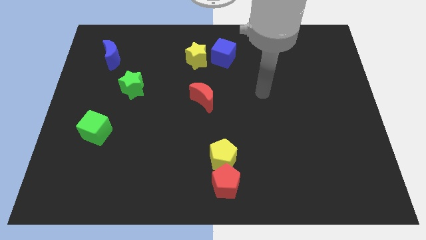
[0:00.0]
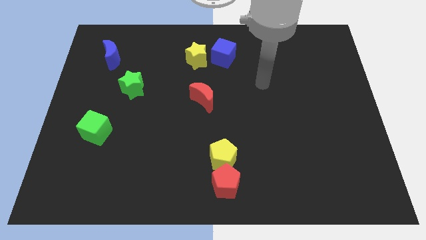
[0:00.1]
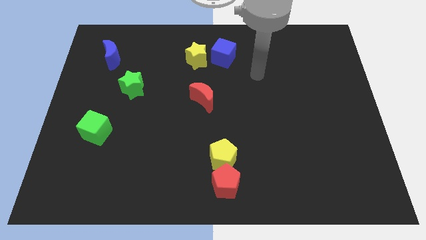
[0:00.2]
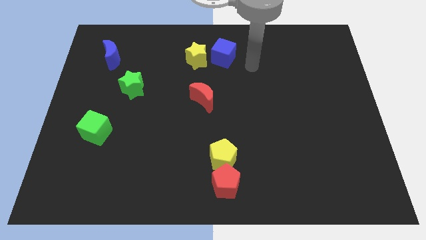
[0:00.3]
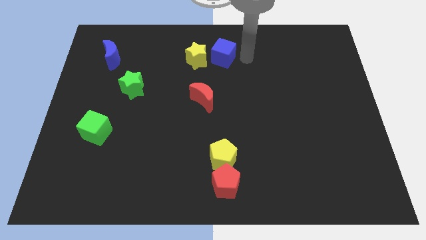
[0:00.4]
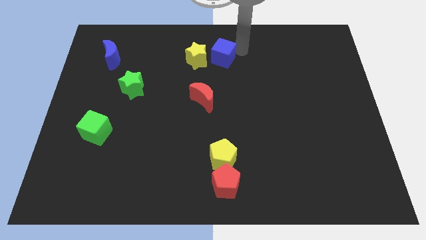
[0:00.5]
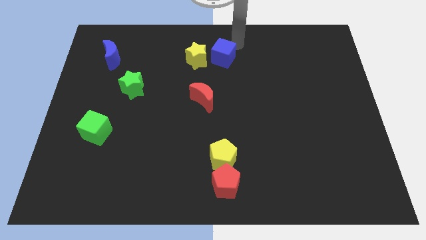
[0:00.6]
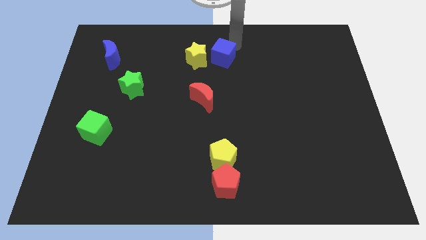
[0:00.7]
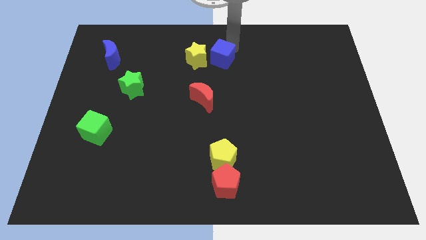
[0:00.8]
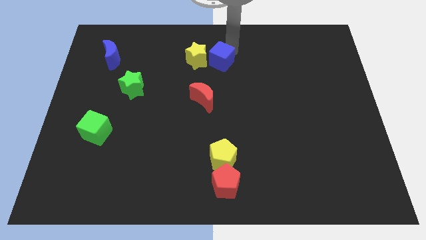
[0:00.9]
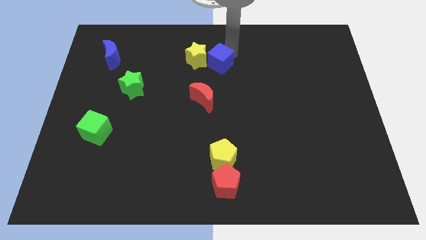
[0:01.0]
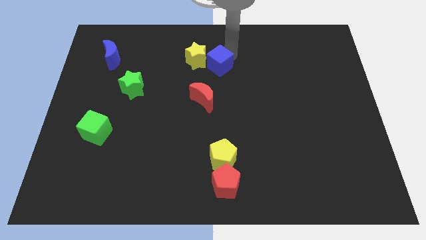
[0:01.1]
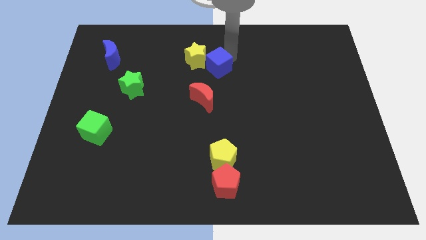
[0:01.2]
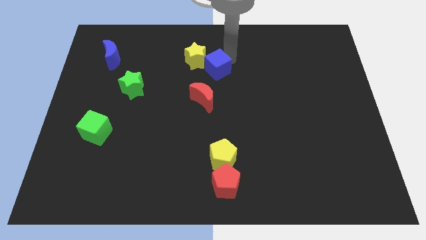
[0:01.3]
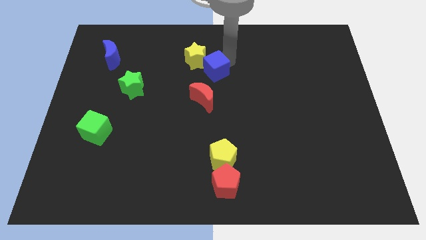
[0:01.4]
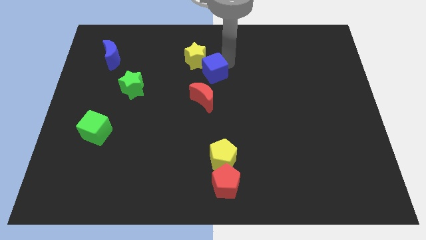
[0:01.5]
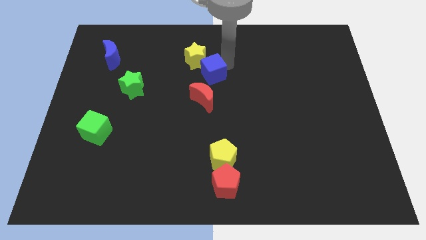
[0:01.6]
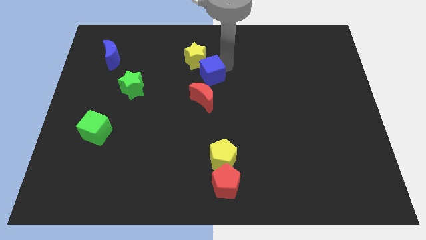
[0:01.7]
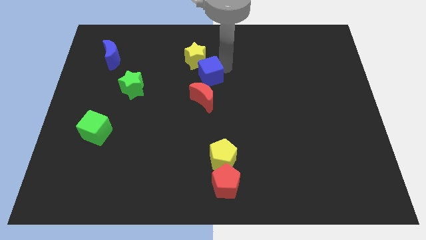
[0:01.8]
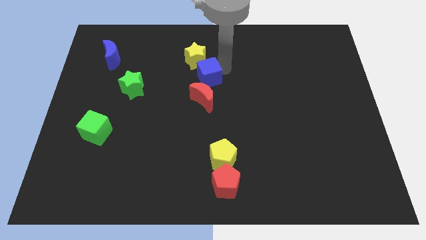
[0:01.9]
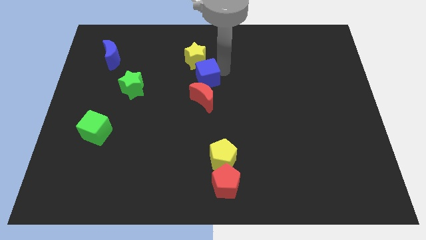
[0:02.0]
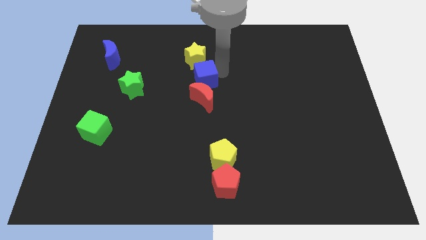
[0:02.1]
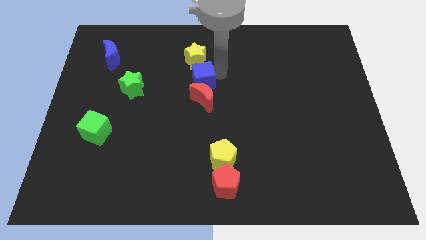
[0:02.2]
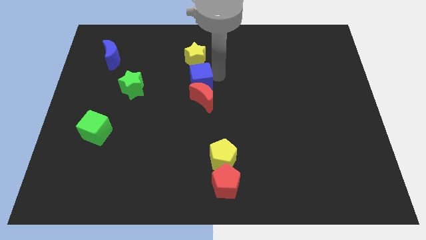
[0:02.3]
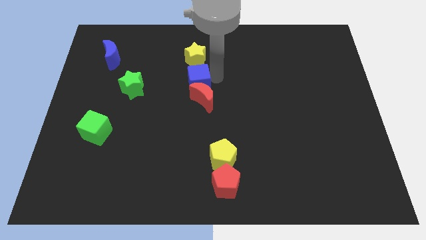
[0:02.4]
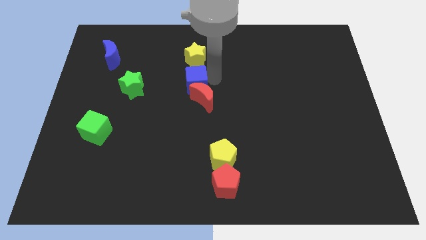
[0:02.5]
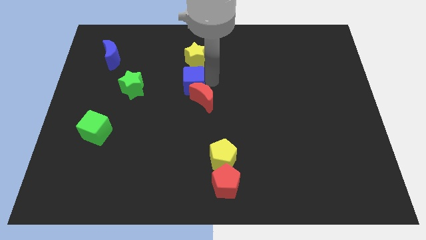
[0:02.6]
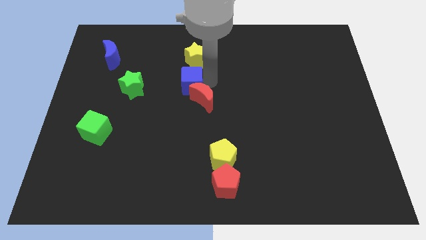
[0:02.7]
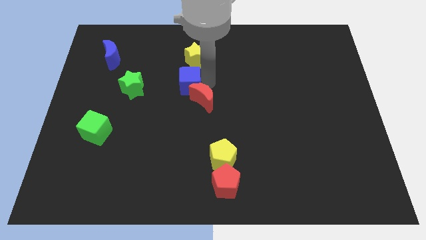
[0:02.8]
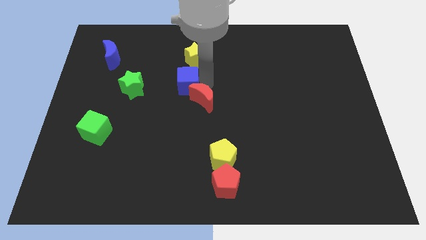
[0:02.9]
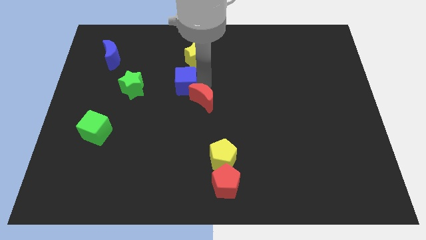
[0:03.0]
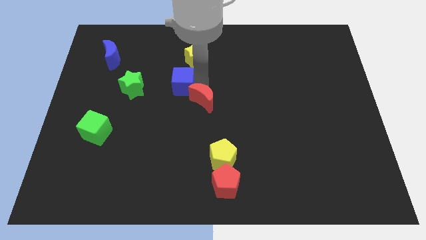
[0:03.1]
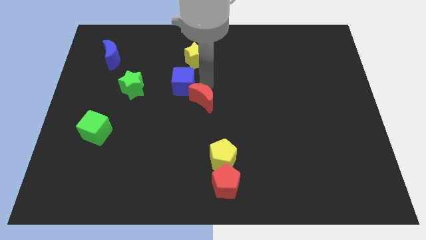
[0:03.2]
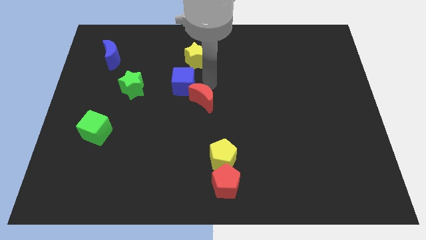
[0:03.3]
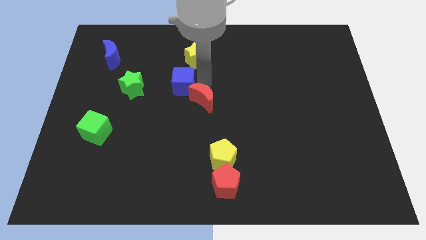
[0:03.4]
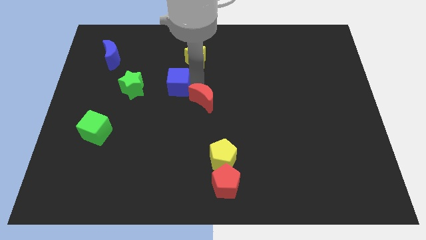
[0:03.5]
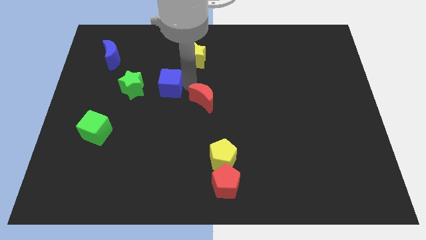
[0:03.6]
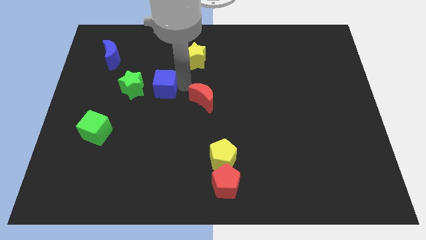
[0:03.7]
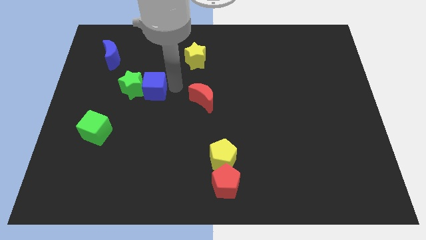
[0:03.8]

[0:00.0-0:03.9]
slide the blue cube next to the green star

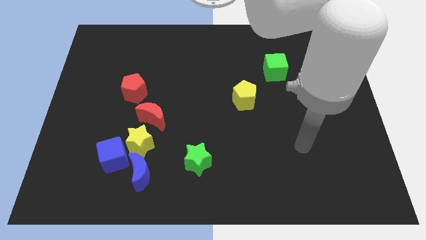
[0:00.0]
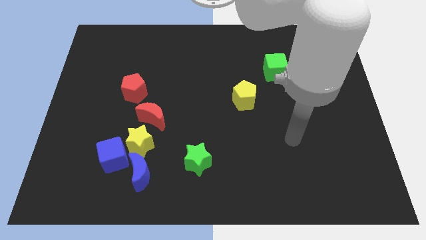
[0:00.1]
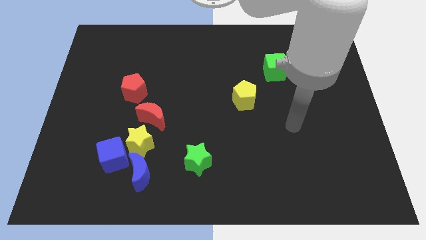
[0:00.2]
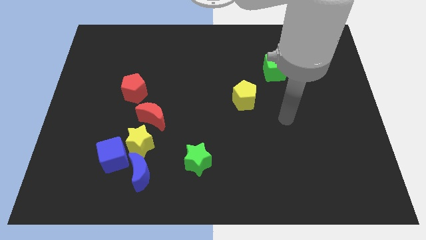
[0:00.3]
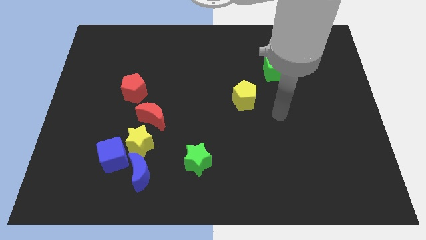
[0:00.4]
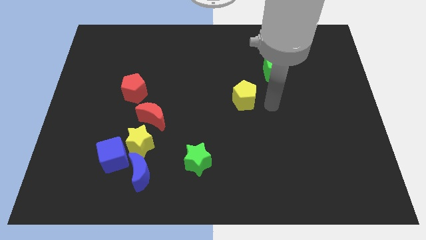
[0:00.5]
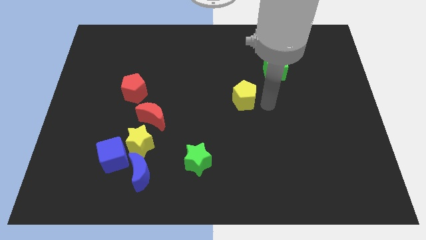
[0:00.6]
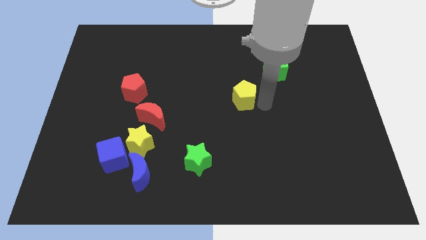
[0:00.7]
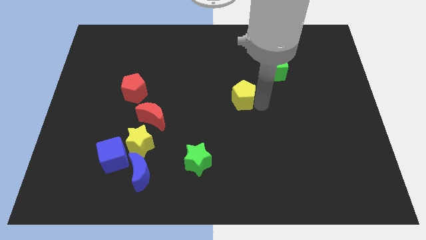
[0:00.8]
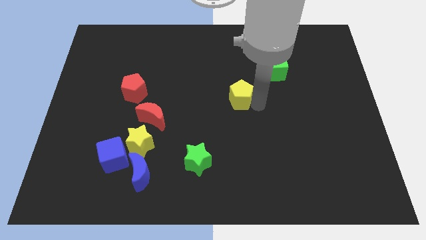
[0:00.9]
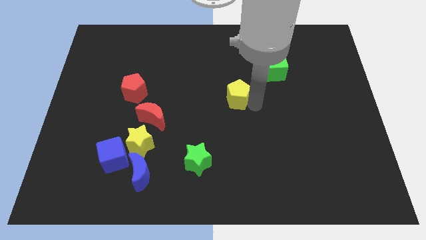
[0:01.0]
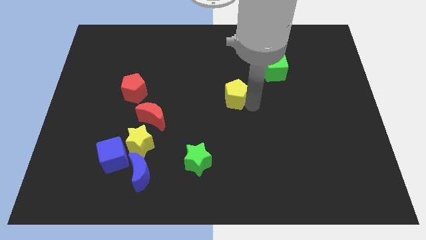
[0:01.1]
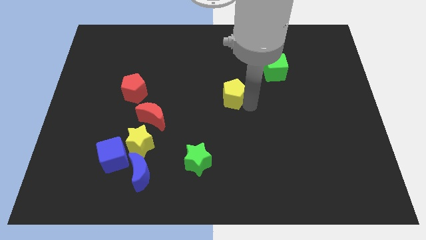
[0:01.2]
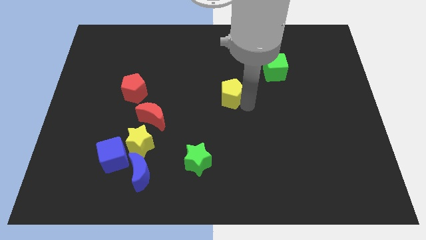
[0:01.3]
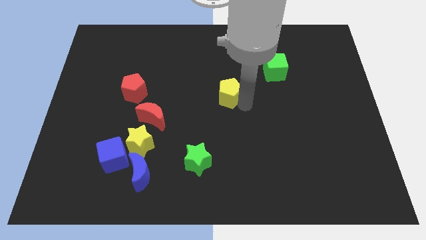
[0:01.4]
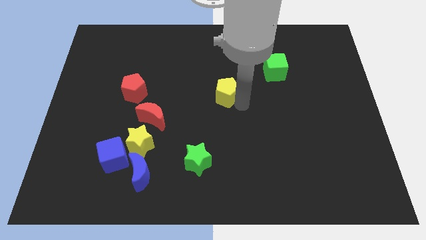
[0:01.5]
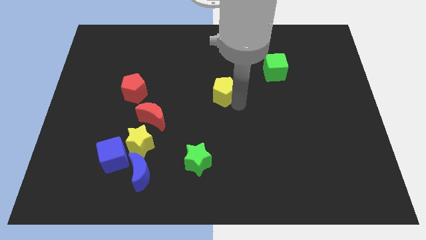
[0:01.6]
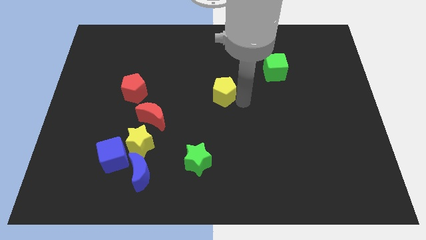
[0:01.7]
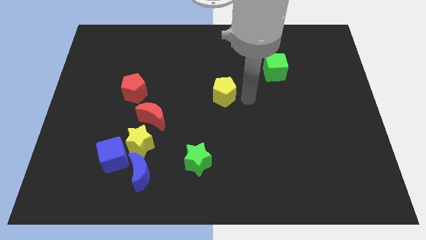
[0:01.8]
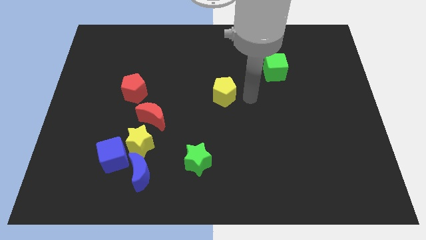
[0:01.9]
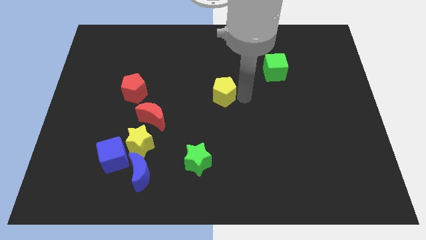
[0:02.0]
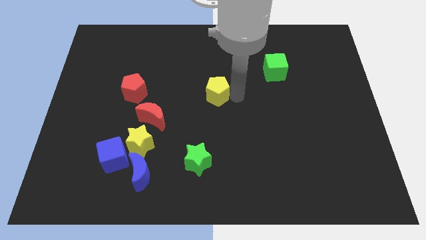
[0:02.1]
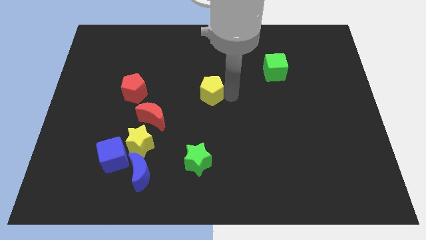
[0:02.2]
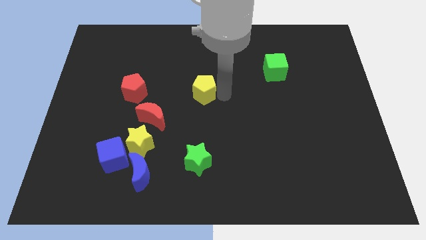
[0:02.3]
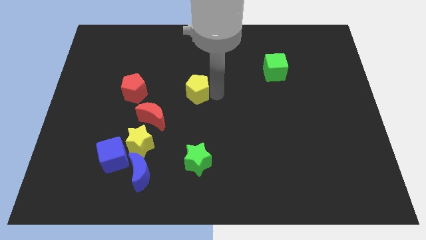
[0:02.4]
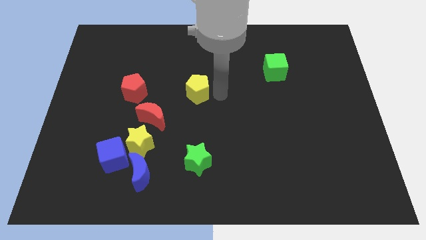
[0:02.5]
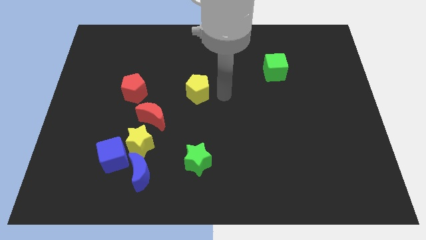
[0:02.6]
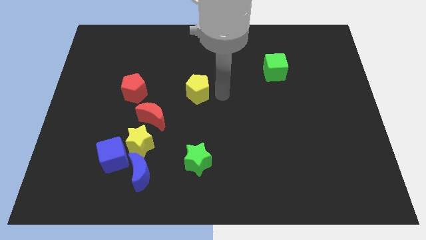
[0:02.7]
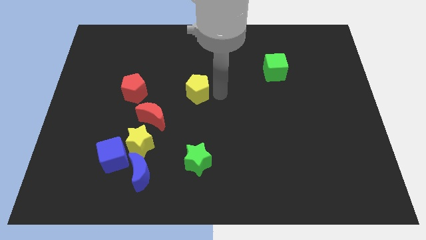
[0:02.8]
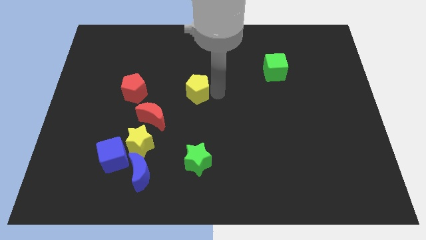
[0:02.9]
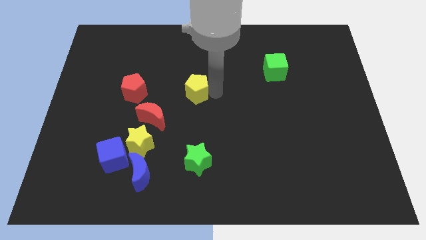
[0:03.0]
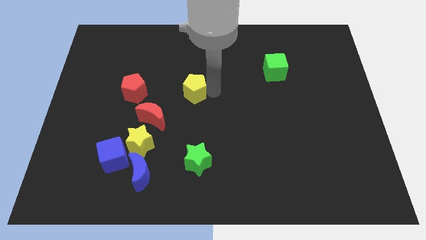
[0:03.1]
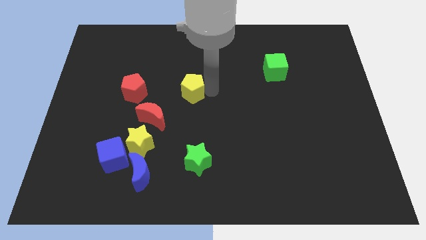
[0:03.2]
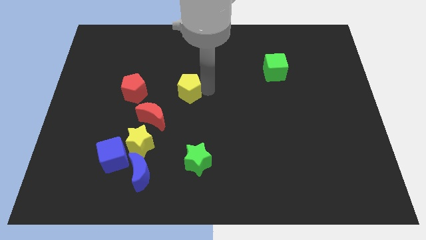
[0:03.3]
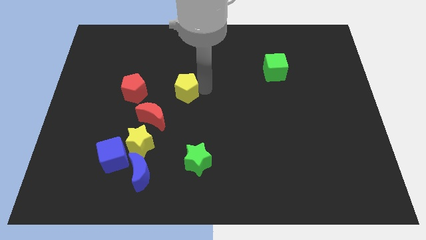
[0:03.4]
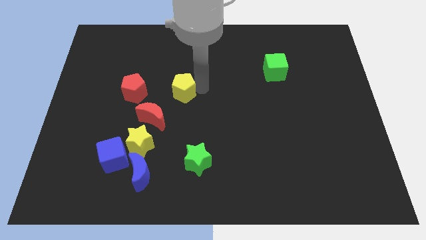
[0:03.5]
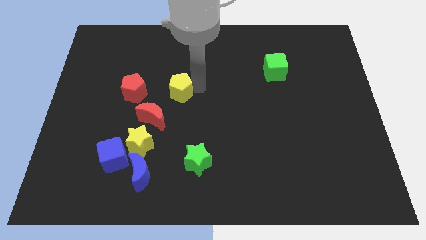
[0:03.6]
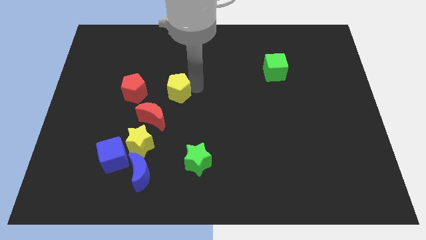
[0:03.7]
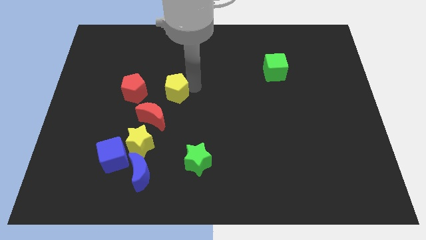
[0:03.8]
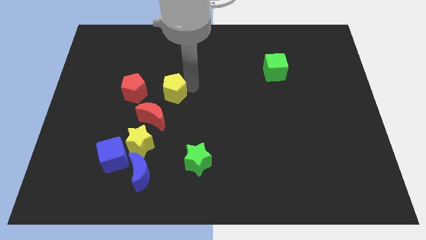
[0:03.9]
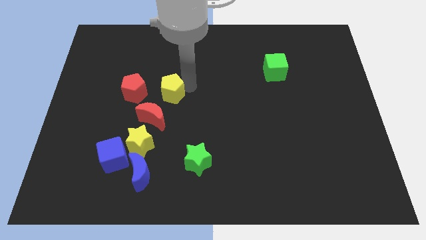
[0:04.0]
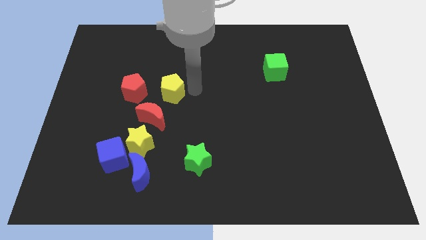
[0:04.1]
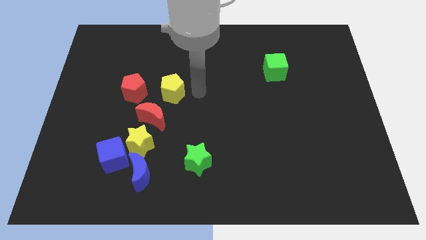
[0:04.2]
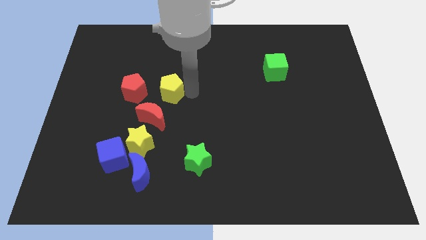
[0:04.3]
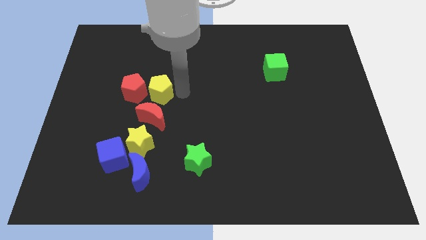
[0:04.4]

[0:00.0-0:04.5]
slide the yellow pentagon towards the red pentagon
